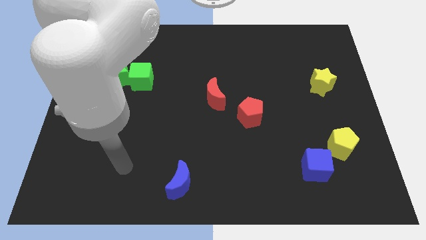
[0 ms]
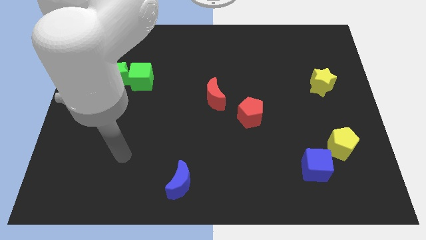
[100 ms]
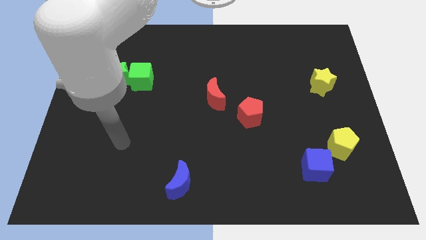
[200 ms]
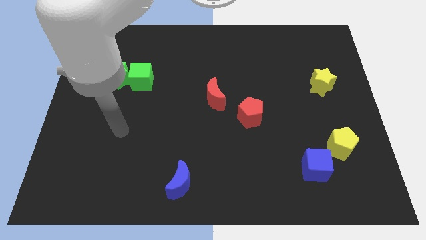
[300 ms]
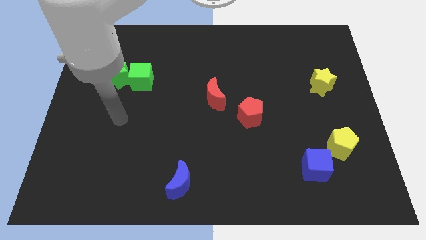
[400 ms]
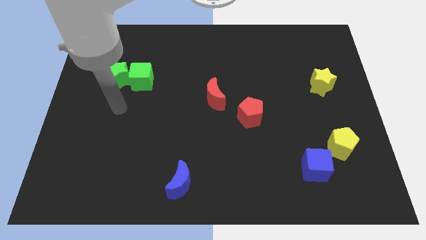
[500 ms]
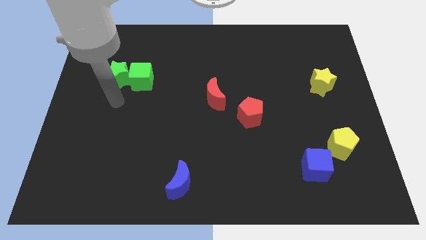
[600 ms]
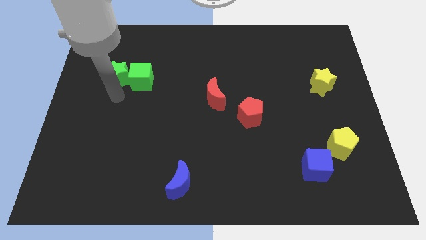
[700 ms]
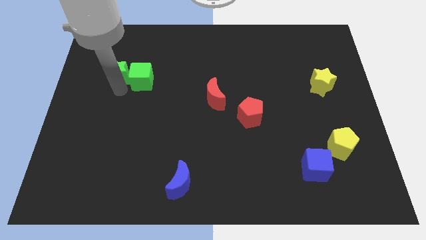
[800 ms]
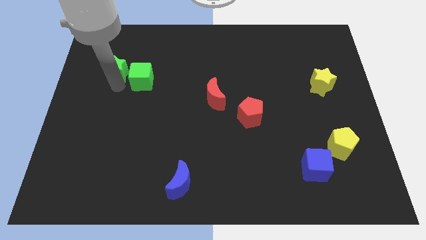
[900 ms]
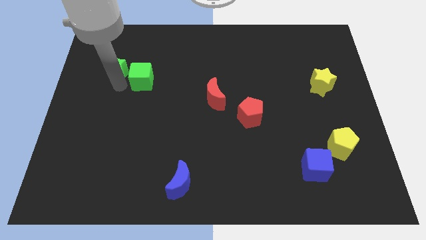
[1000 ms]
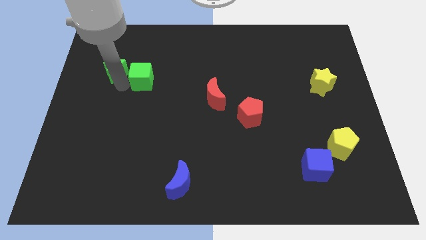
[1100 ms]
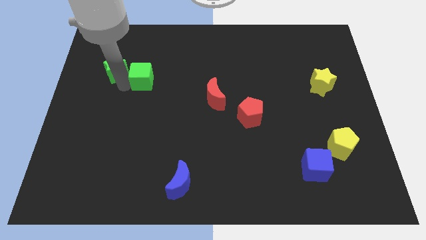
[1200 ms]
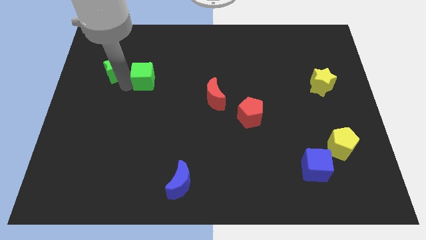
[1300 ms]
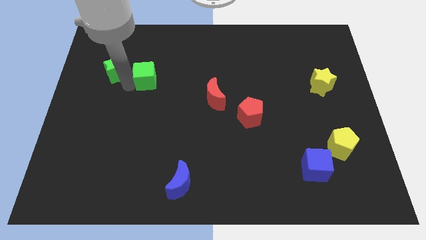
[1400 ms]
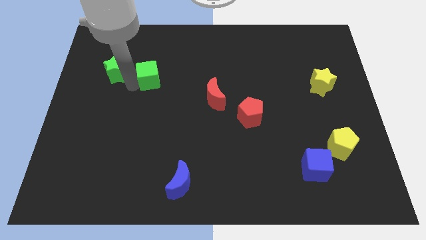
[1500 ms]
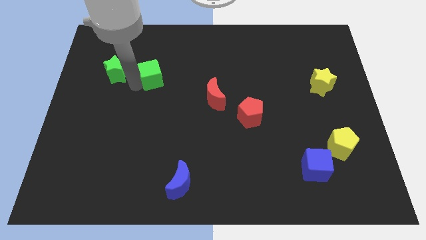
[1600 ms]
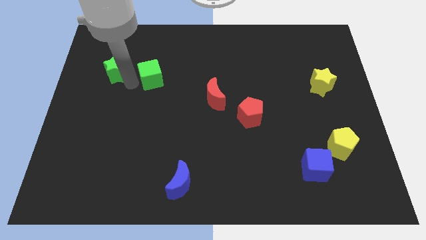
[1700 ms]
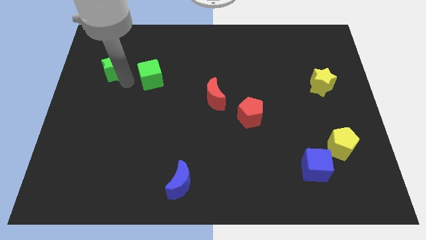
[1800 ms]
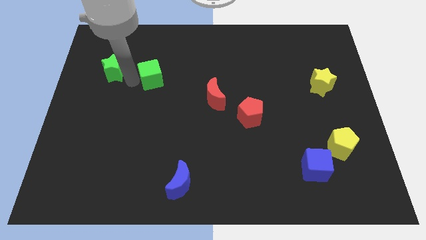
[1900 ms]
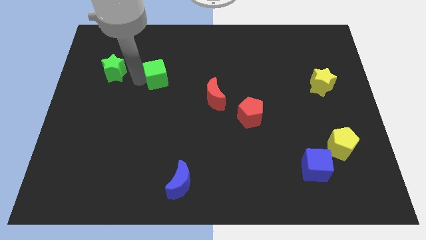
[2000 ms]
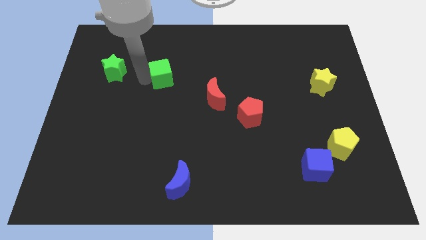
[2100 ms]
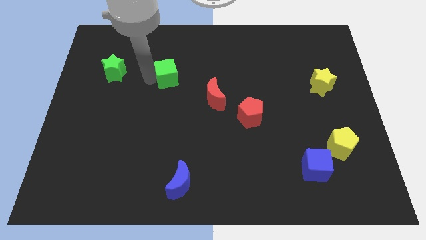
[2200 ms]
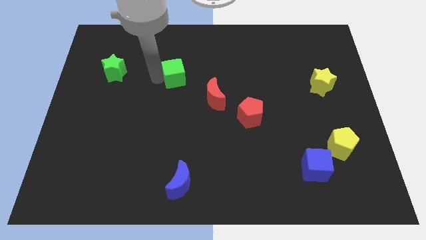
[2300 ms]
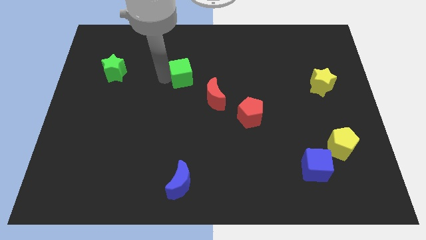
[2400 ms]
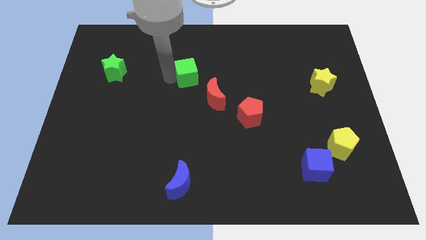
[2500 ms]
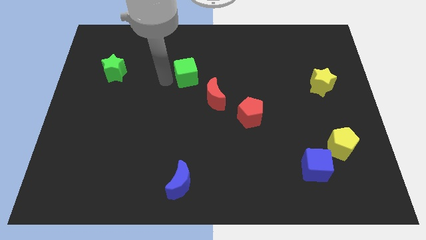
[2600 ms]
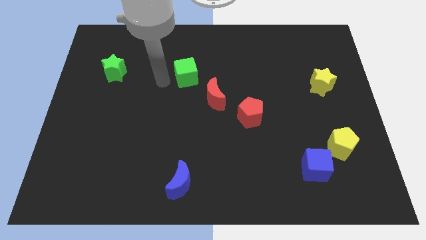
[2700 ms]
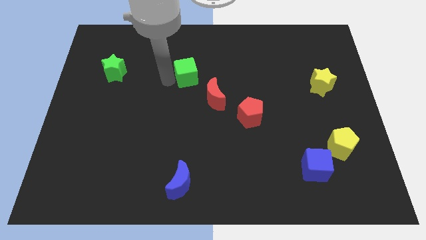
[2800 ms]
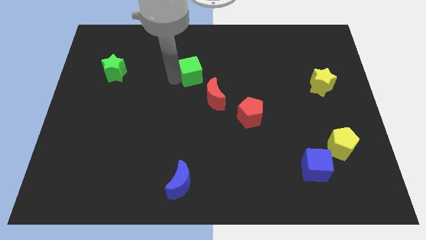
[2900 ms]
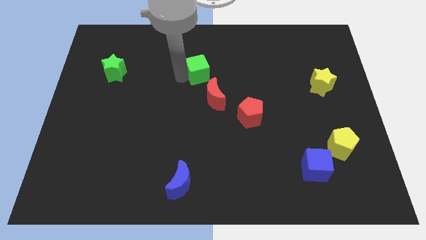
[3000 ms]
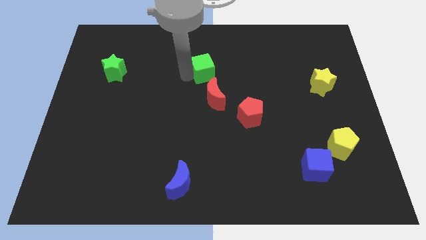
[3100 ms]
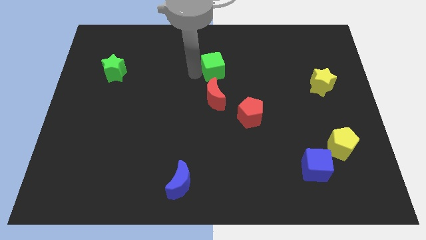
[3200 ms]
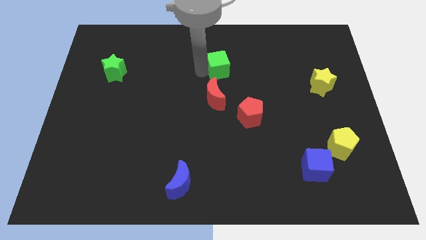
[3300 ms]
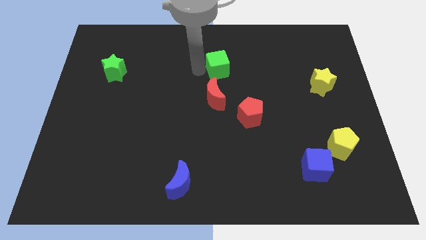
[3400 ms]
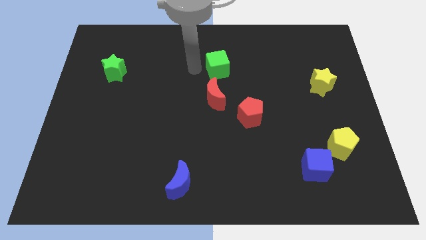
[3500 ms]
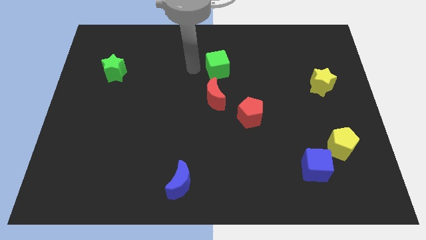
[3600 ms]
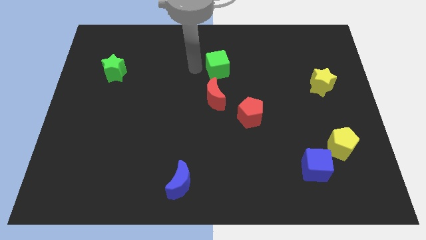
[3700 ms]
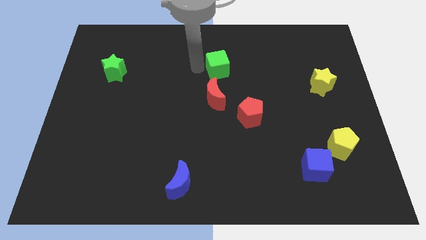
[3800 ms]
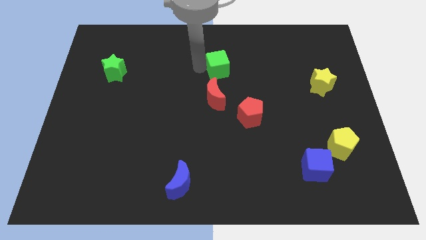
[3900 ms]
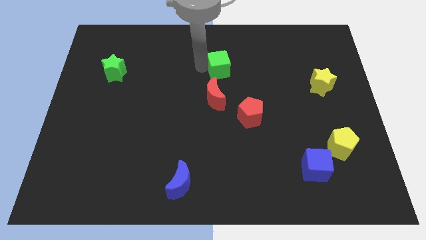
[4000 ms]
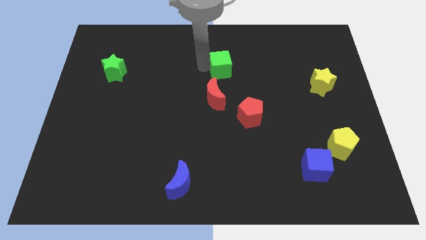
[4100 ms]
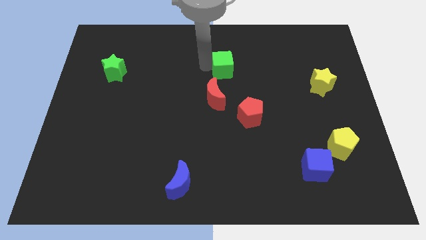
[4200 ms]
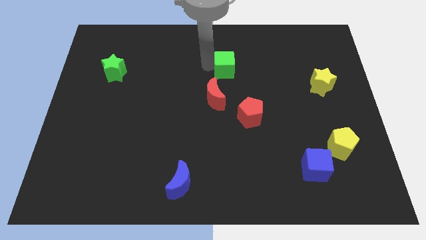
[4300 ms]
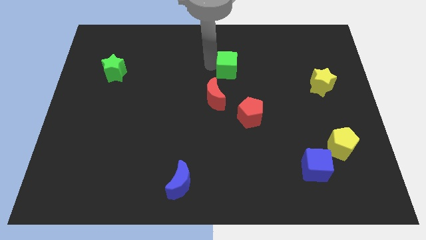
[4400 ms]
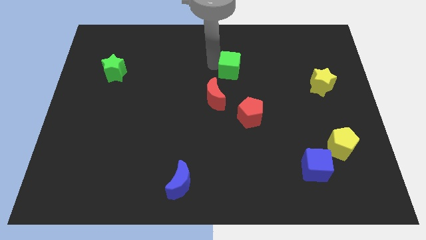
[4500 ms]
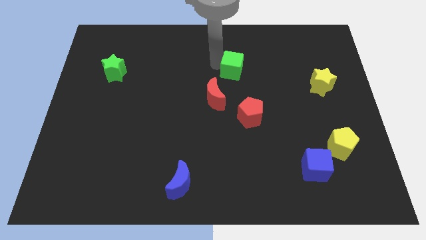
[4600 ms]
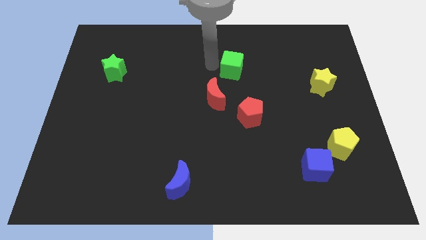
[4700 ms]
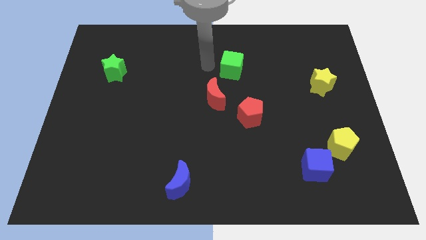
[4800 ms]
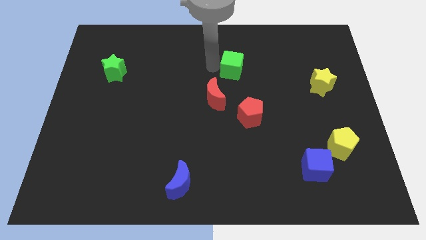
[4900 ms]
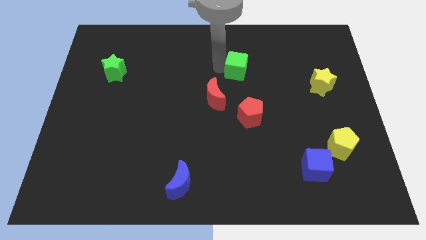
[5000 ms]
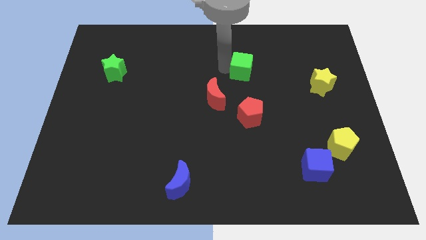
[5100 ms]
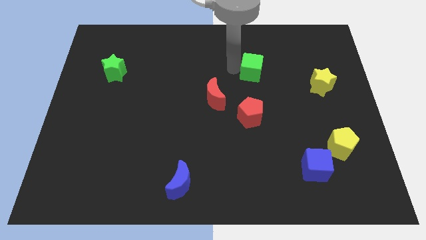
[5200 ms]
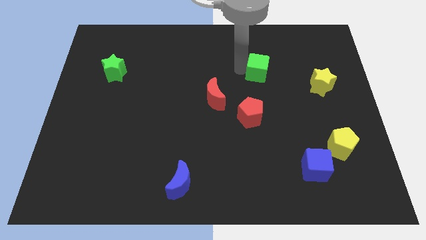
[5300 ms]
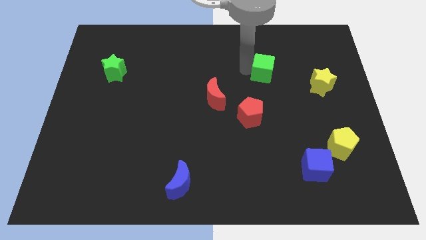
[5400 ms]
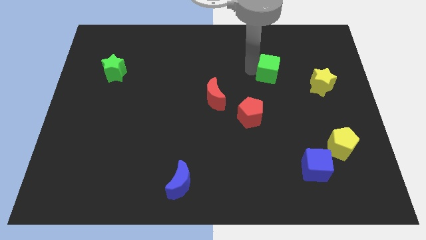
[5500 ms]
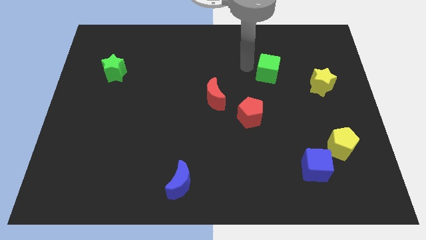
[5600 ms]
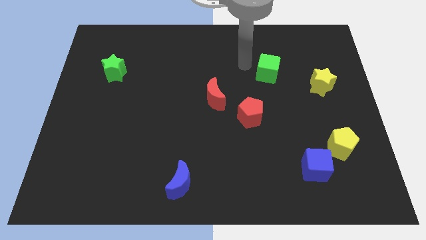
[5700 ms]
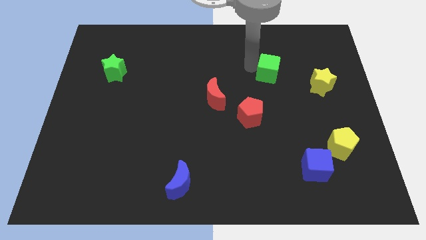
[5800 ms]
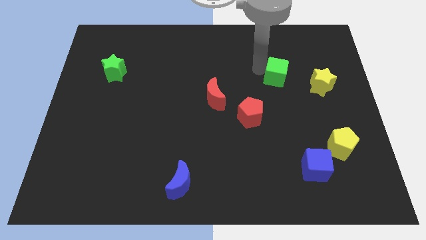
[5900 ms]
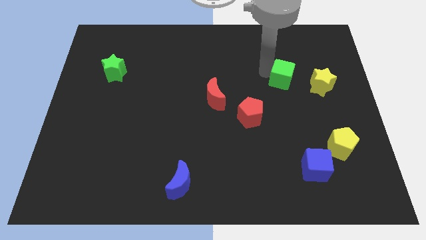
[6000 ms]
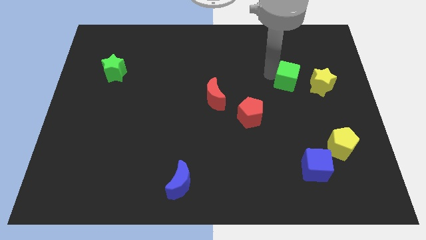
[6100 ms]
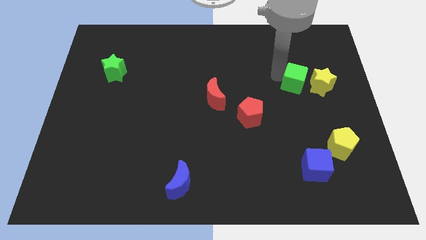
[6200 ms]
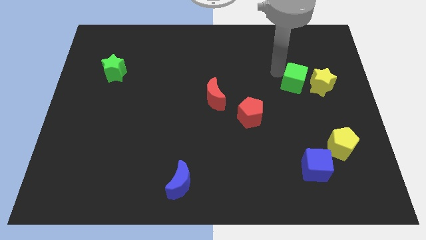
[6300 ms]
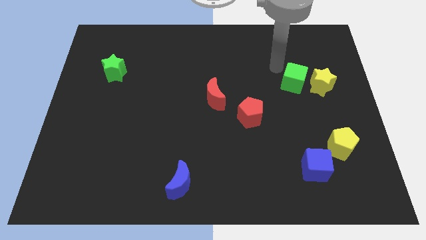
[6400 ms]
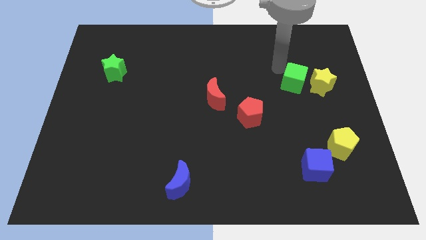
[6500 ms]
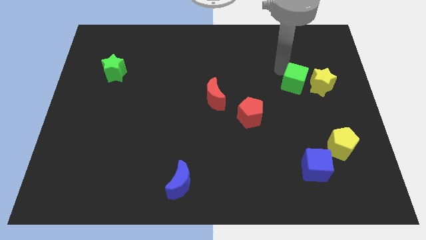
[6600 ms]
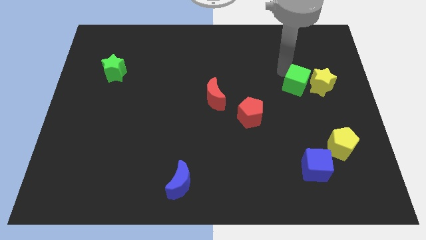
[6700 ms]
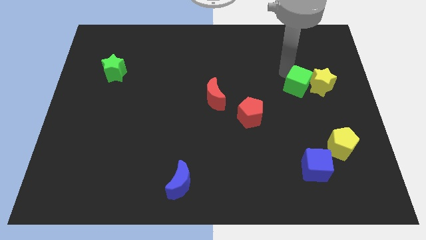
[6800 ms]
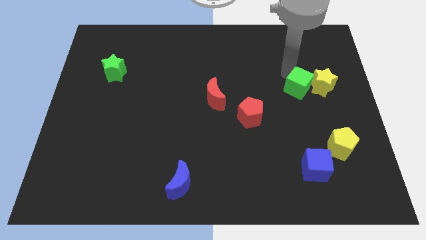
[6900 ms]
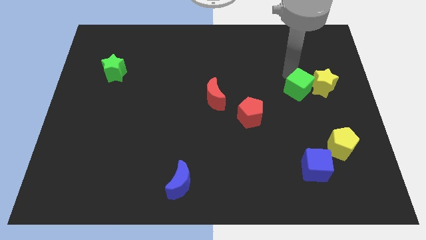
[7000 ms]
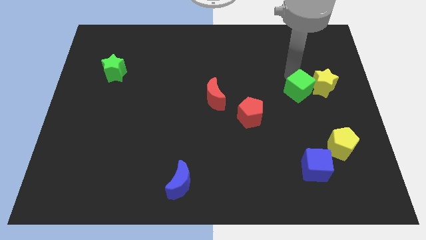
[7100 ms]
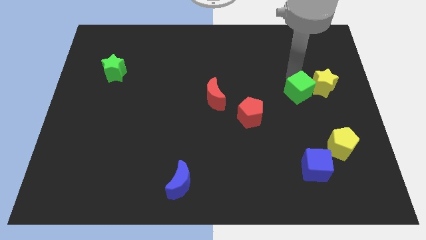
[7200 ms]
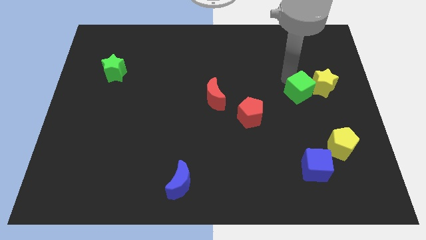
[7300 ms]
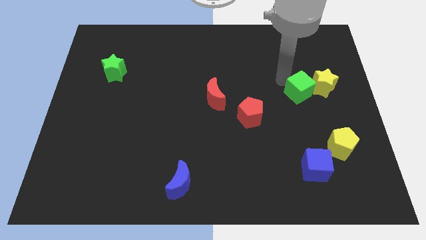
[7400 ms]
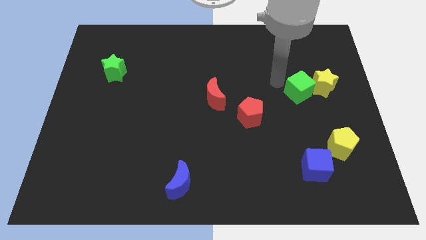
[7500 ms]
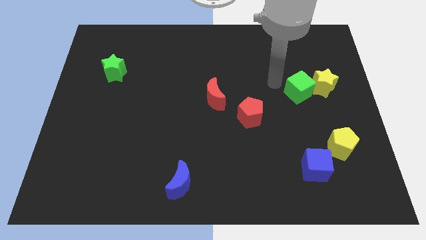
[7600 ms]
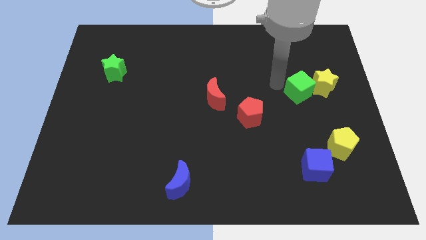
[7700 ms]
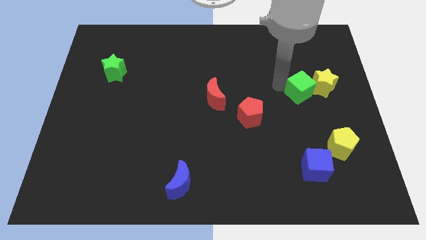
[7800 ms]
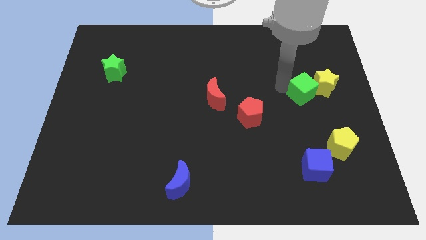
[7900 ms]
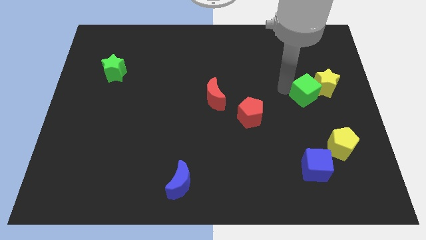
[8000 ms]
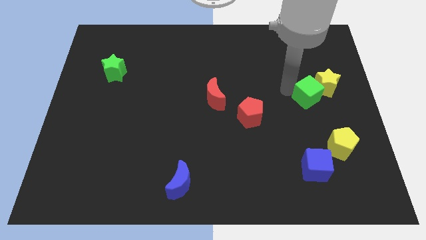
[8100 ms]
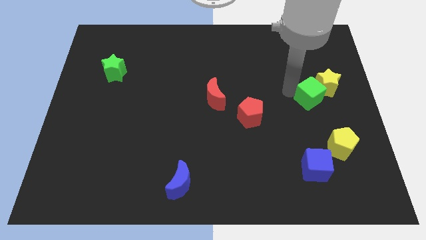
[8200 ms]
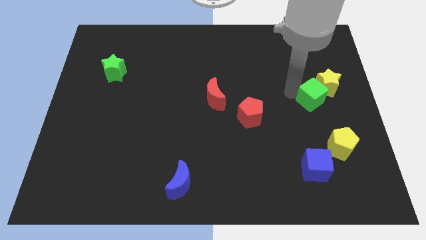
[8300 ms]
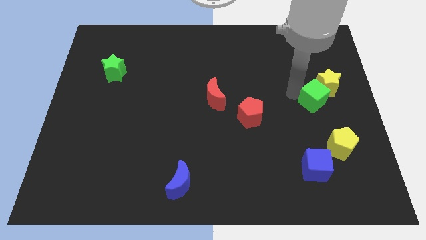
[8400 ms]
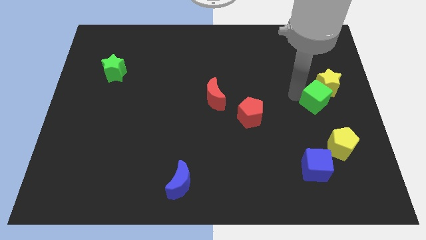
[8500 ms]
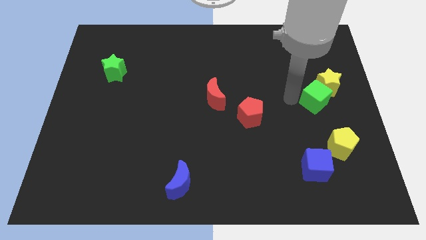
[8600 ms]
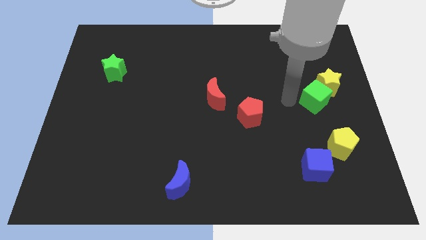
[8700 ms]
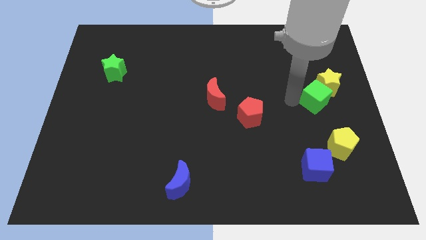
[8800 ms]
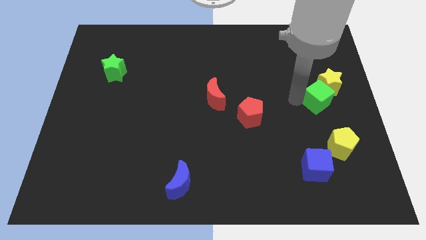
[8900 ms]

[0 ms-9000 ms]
push the green cube to the right side of the board
